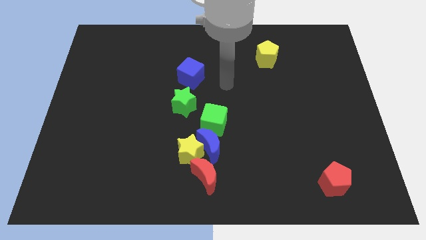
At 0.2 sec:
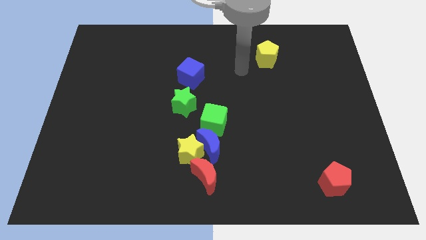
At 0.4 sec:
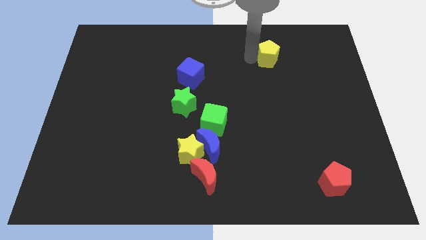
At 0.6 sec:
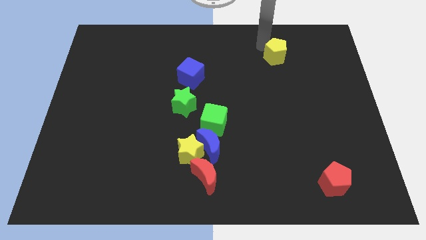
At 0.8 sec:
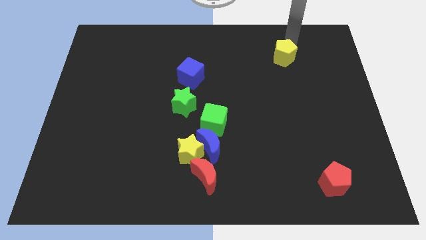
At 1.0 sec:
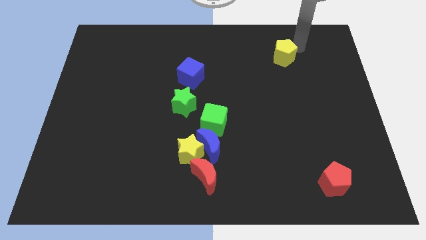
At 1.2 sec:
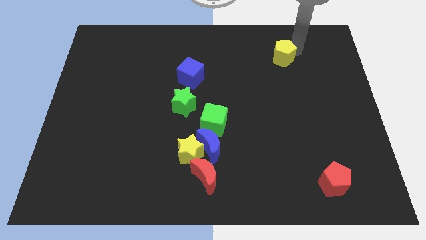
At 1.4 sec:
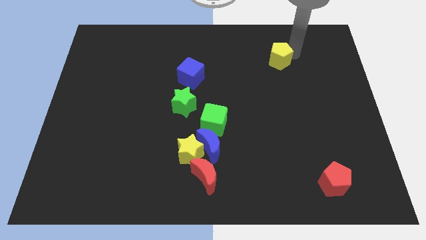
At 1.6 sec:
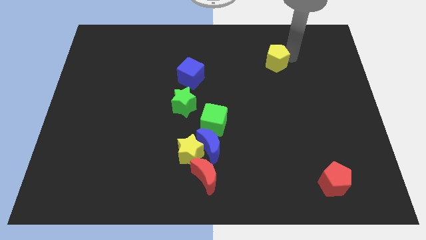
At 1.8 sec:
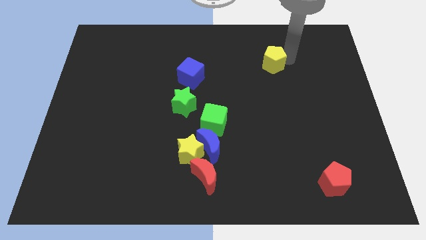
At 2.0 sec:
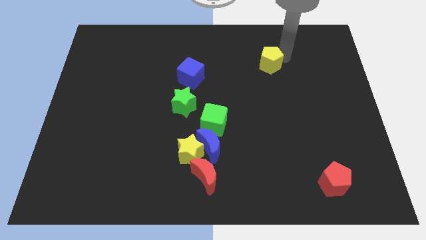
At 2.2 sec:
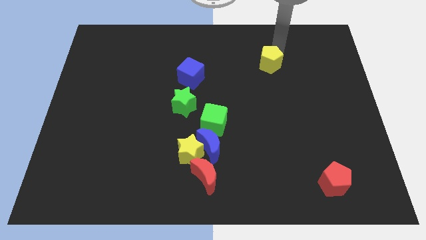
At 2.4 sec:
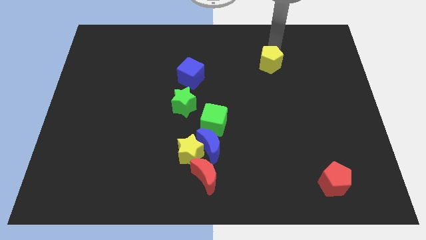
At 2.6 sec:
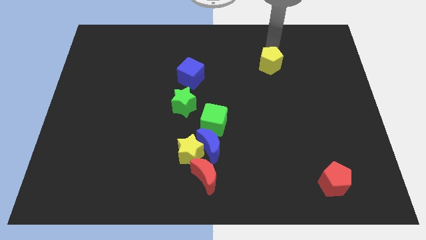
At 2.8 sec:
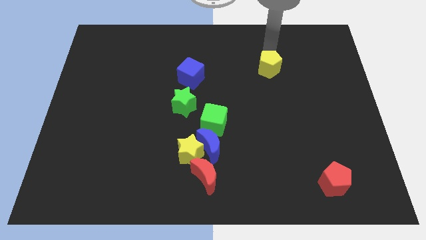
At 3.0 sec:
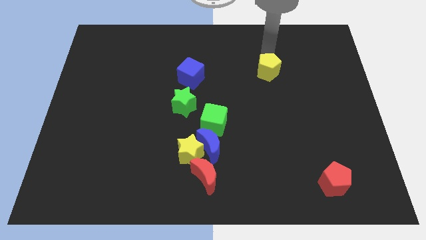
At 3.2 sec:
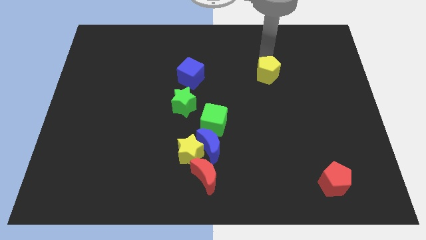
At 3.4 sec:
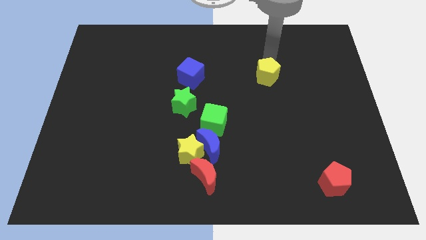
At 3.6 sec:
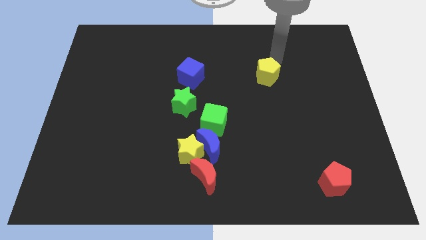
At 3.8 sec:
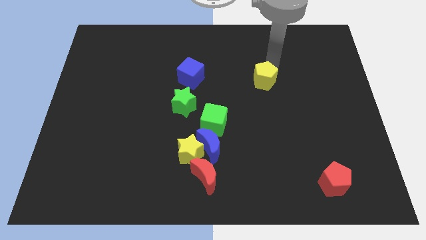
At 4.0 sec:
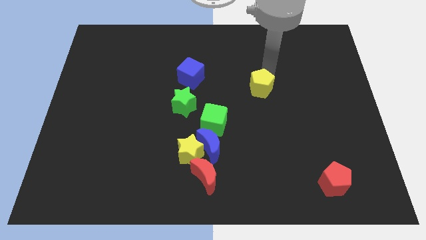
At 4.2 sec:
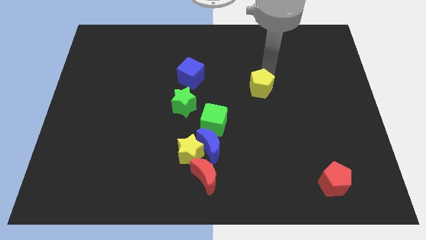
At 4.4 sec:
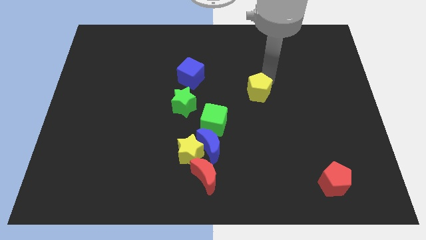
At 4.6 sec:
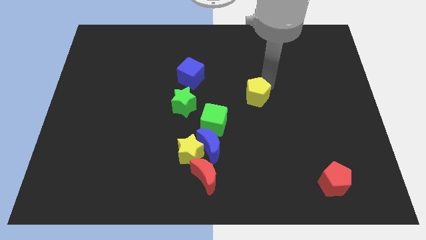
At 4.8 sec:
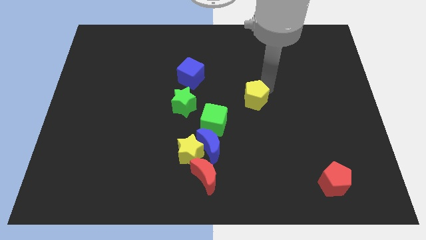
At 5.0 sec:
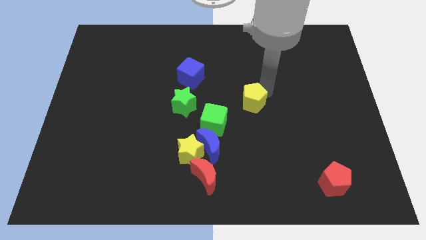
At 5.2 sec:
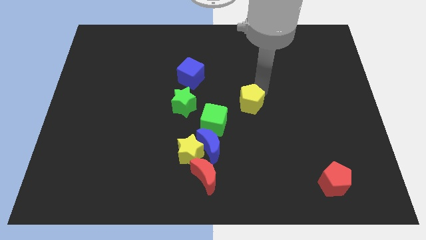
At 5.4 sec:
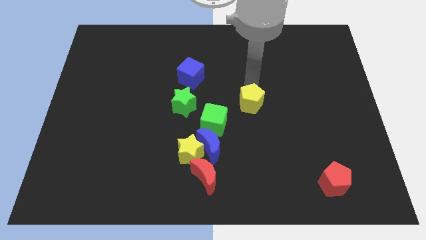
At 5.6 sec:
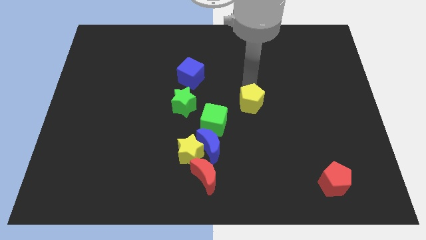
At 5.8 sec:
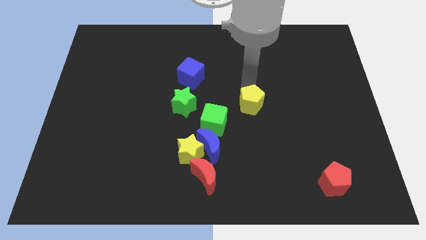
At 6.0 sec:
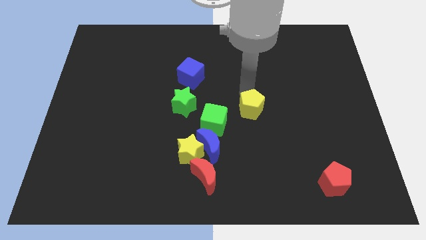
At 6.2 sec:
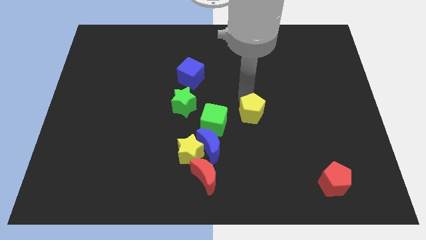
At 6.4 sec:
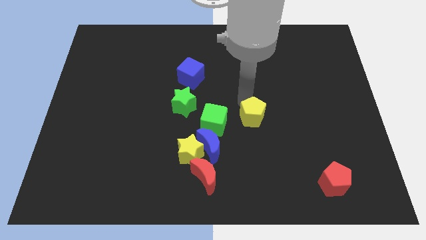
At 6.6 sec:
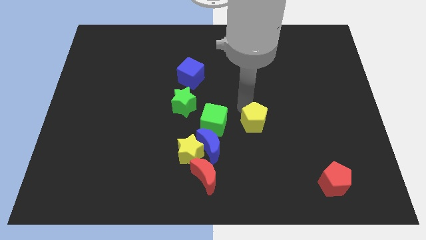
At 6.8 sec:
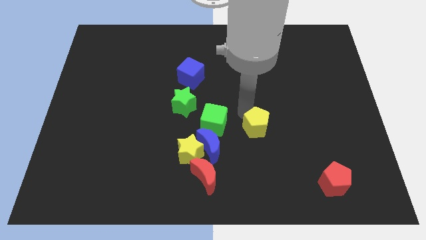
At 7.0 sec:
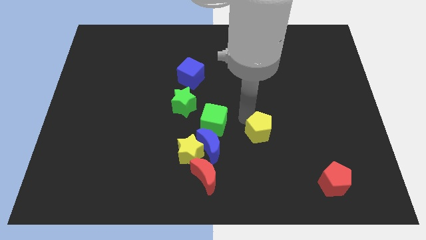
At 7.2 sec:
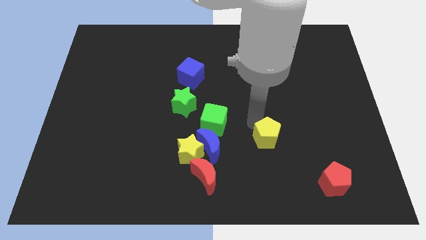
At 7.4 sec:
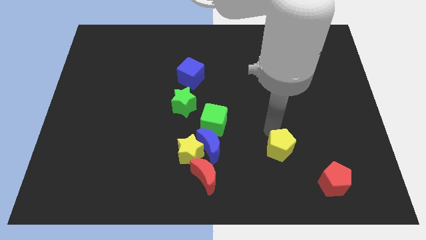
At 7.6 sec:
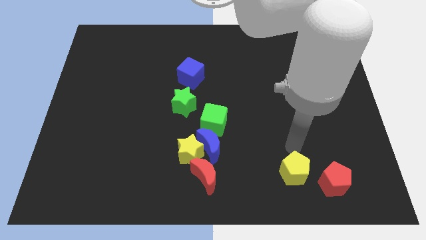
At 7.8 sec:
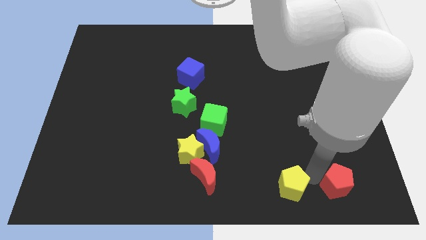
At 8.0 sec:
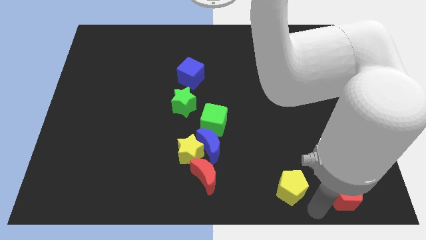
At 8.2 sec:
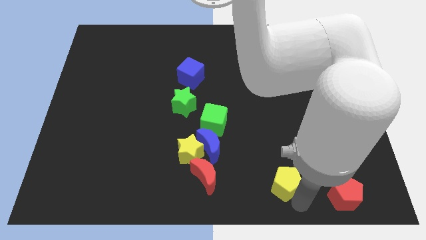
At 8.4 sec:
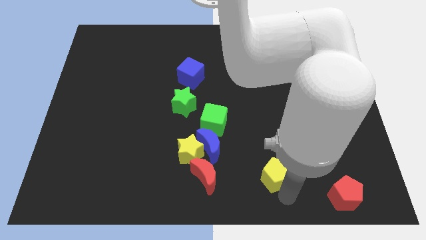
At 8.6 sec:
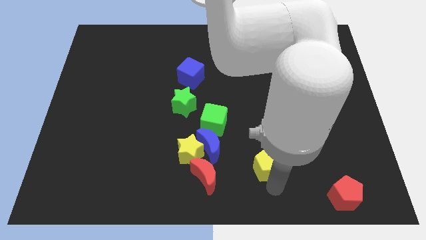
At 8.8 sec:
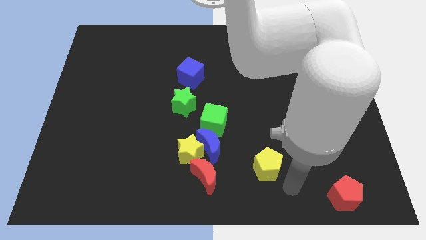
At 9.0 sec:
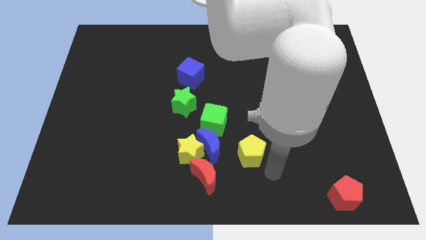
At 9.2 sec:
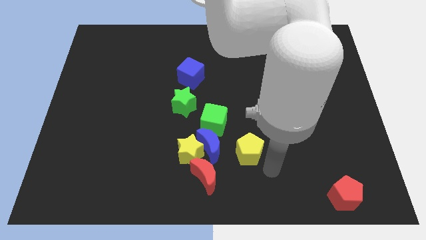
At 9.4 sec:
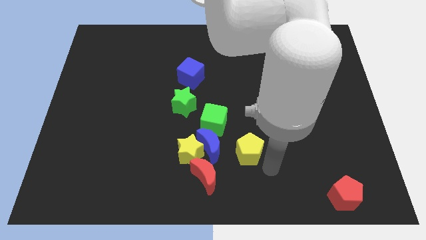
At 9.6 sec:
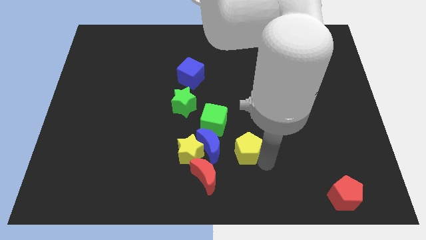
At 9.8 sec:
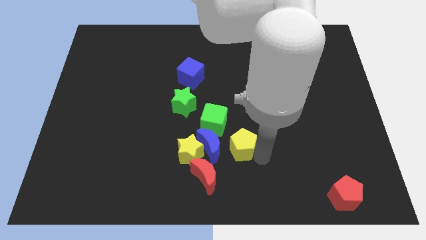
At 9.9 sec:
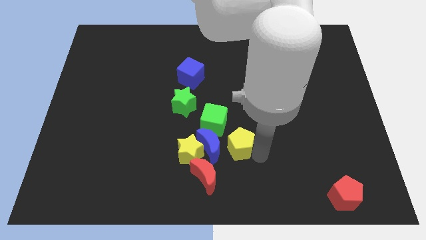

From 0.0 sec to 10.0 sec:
put the yellow pentagon towards the blue moon

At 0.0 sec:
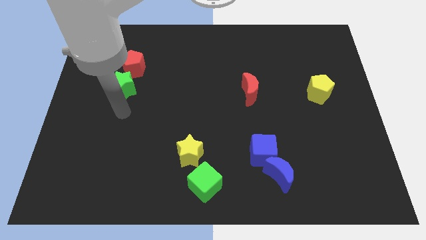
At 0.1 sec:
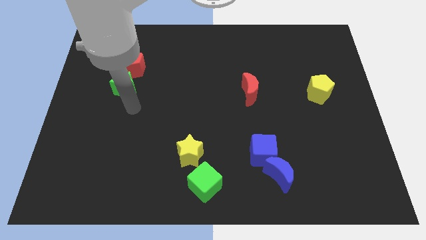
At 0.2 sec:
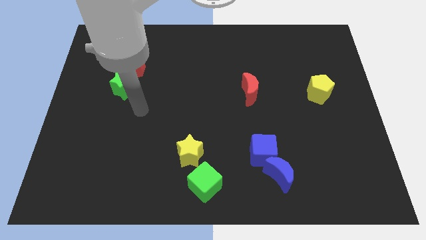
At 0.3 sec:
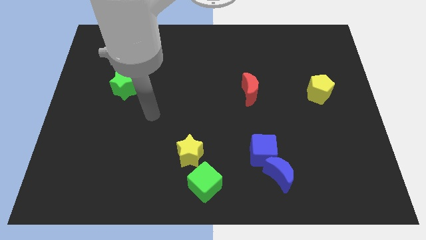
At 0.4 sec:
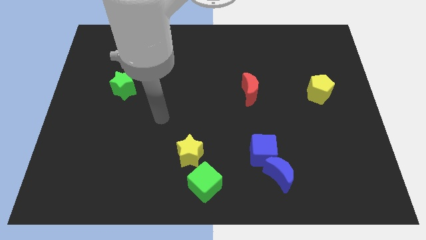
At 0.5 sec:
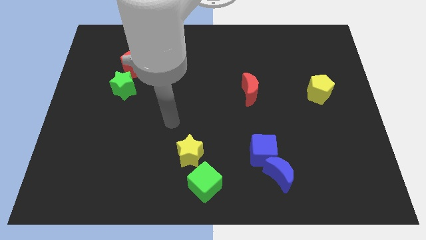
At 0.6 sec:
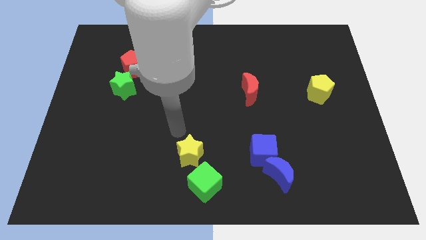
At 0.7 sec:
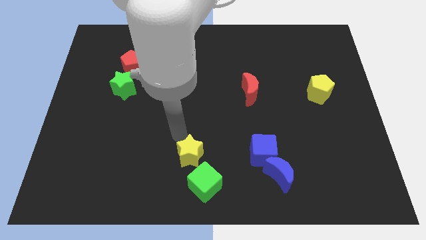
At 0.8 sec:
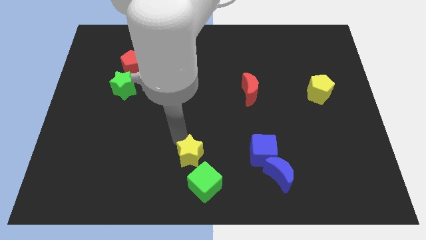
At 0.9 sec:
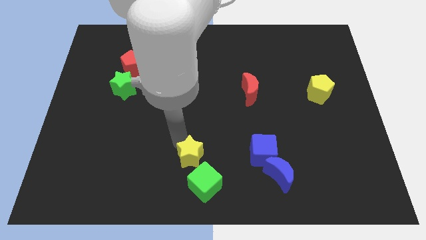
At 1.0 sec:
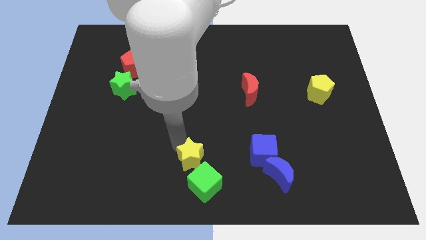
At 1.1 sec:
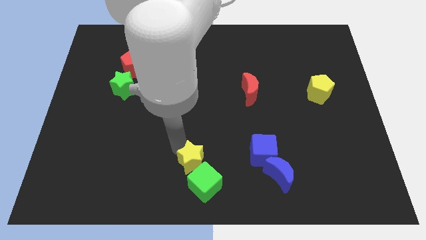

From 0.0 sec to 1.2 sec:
slide the yellow star next to the green cube
